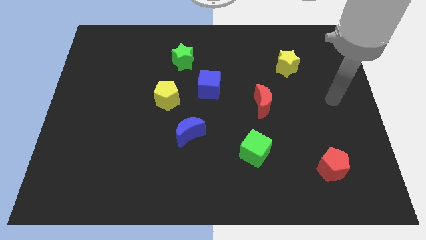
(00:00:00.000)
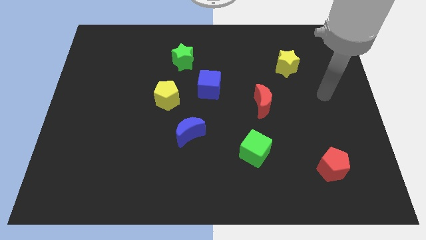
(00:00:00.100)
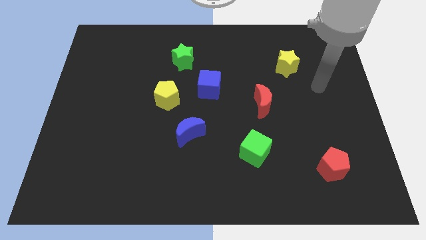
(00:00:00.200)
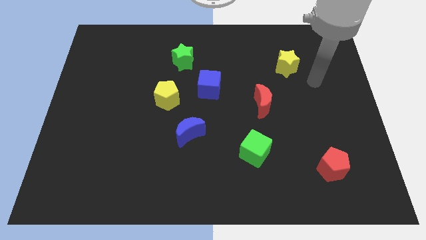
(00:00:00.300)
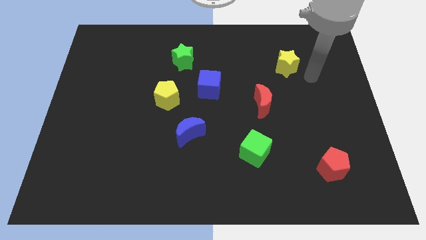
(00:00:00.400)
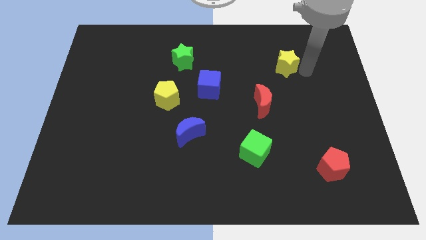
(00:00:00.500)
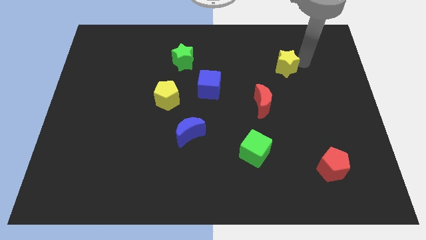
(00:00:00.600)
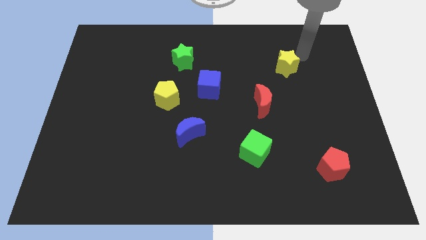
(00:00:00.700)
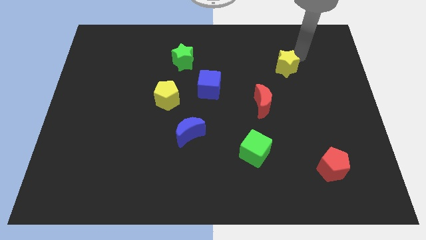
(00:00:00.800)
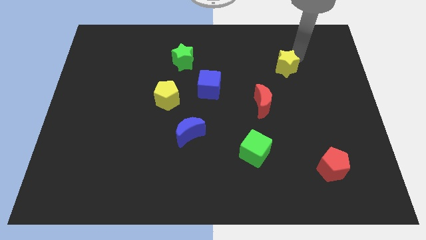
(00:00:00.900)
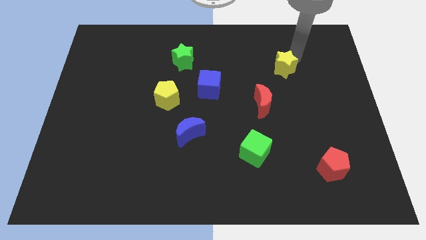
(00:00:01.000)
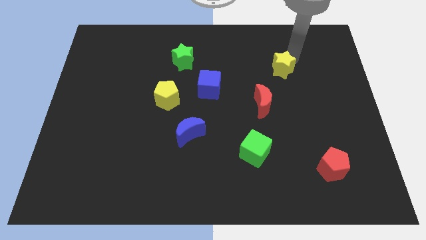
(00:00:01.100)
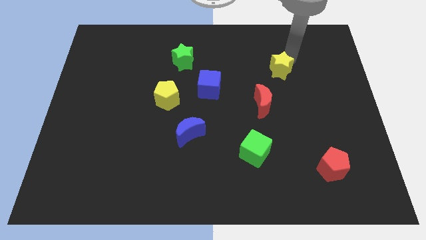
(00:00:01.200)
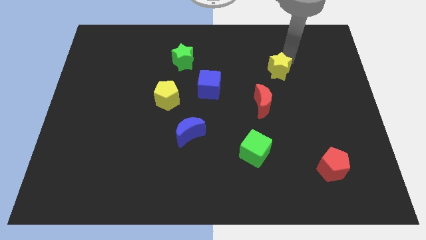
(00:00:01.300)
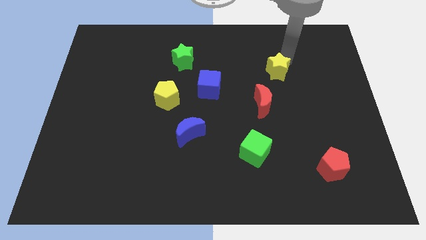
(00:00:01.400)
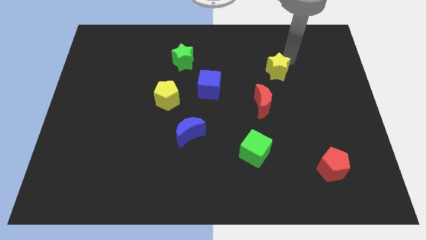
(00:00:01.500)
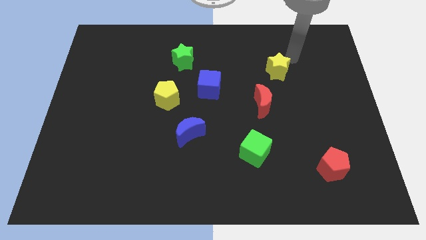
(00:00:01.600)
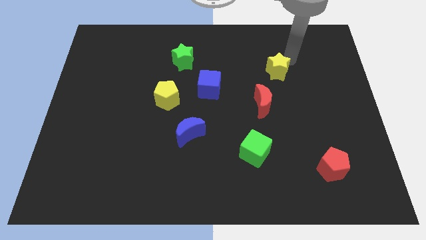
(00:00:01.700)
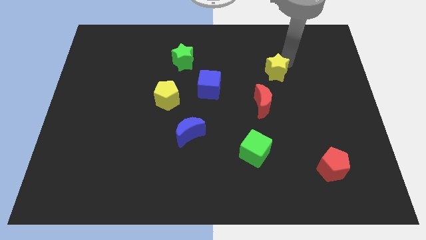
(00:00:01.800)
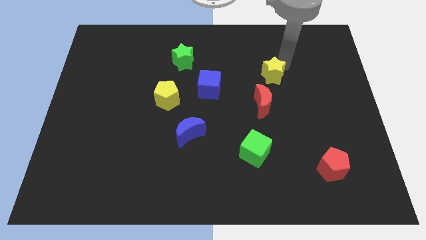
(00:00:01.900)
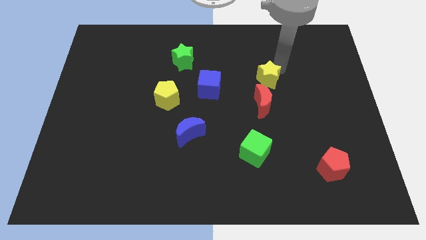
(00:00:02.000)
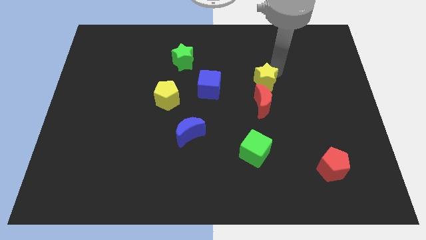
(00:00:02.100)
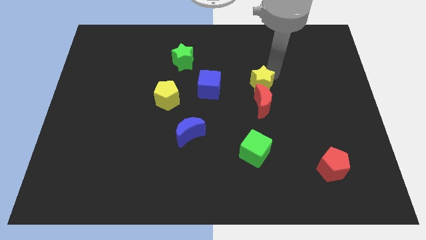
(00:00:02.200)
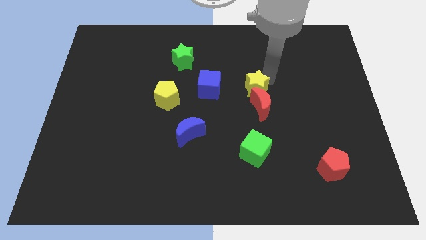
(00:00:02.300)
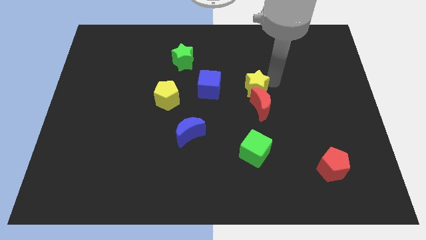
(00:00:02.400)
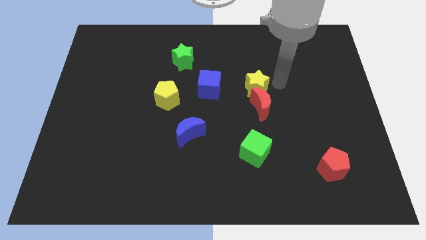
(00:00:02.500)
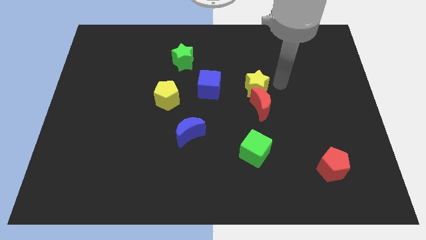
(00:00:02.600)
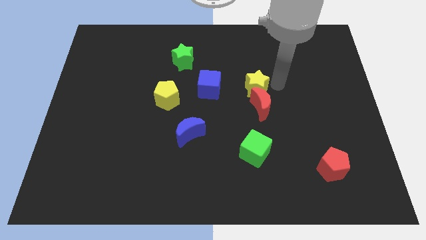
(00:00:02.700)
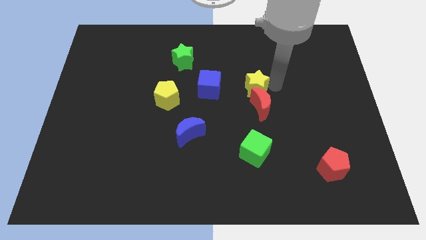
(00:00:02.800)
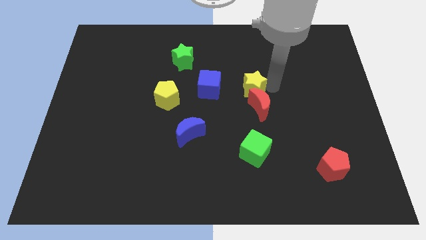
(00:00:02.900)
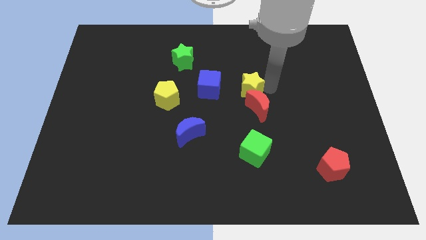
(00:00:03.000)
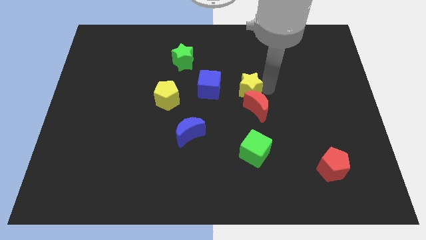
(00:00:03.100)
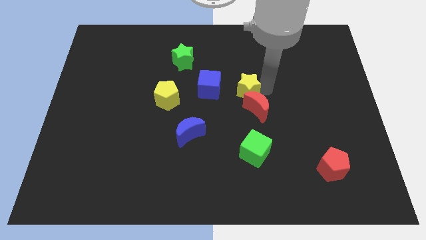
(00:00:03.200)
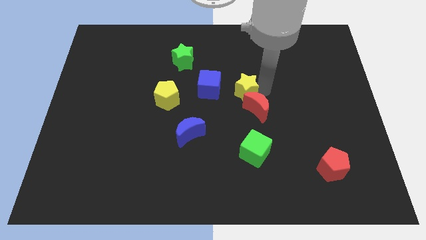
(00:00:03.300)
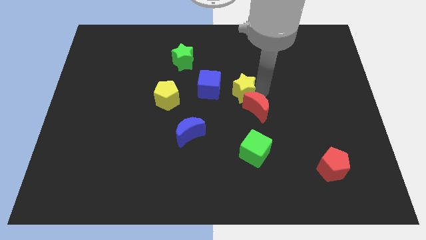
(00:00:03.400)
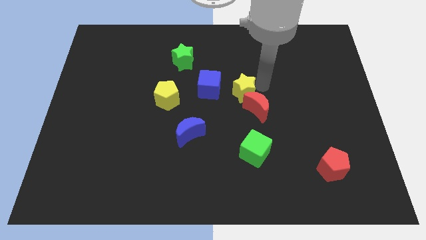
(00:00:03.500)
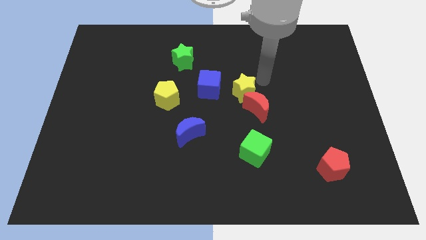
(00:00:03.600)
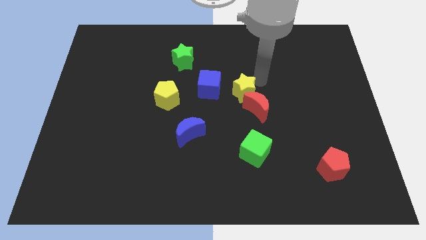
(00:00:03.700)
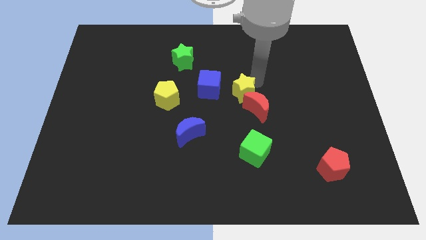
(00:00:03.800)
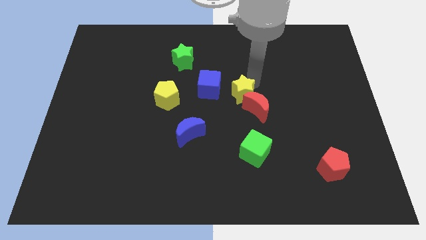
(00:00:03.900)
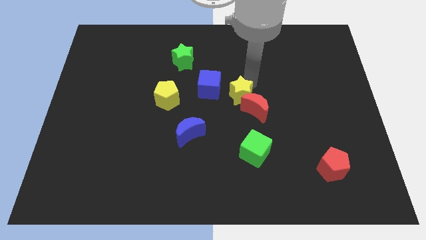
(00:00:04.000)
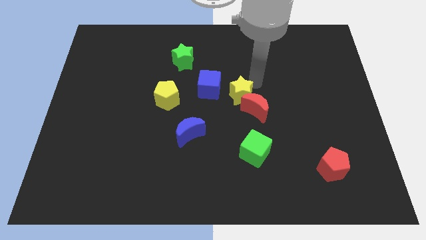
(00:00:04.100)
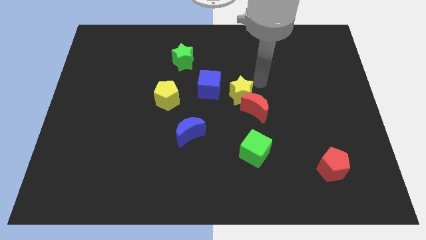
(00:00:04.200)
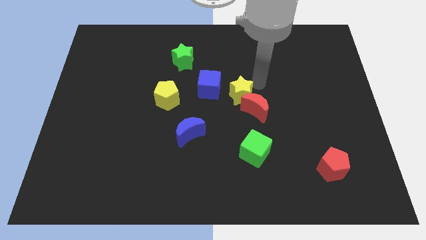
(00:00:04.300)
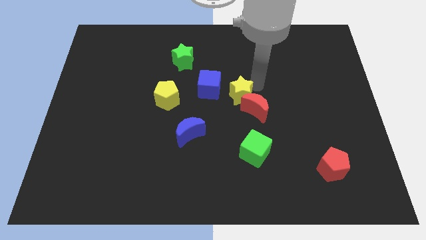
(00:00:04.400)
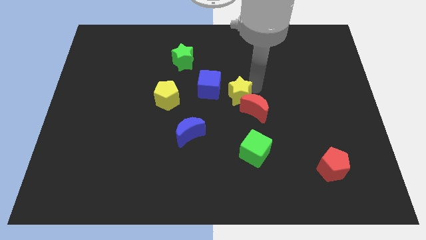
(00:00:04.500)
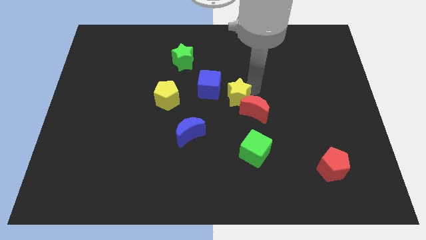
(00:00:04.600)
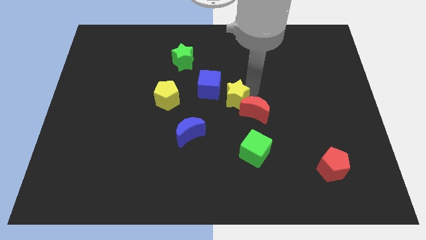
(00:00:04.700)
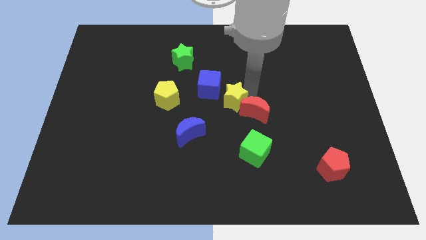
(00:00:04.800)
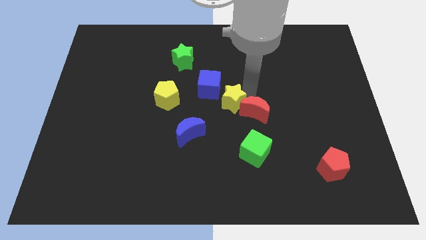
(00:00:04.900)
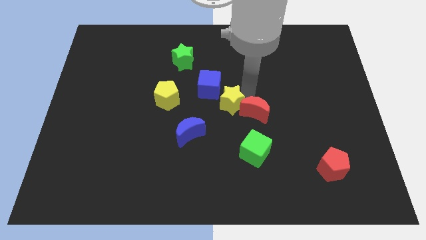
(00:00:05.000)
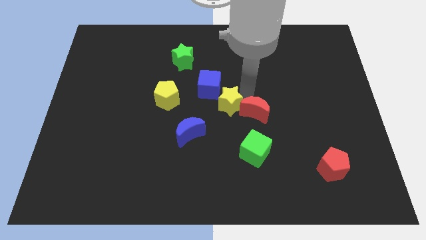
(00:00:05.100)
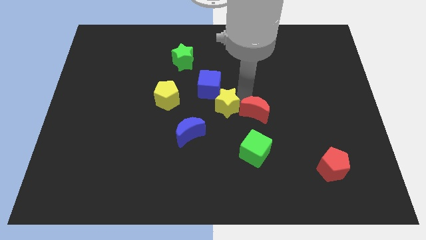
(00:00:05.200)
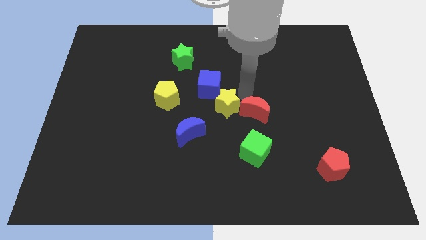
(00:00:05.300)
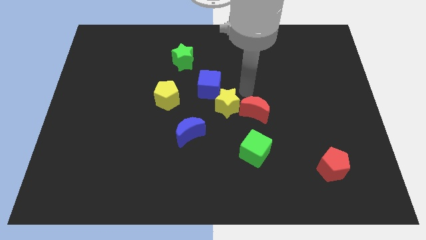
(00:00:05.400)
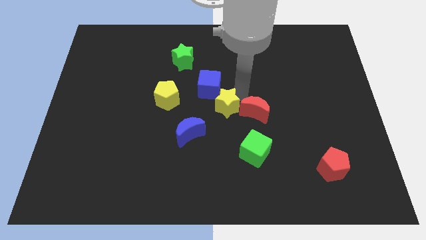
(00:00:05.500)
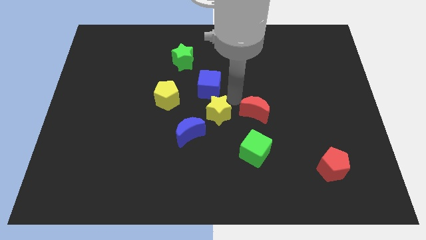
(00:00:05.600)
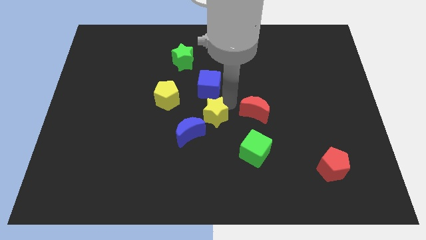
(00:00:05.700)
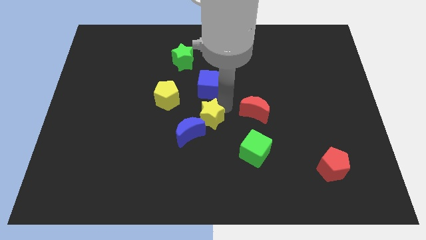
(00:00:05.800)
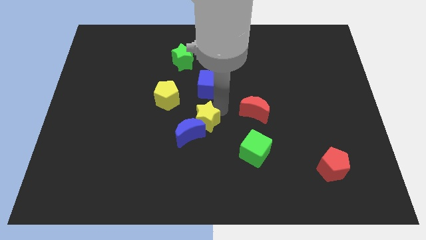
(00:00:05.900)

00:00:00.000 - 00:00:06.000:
put the yellow star to the blue moon

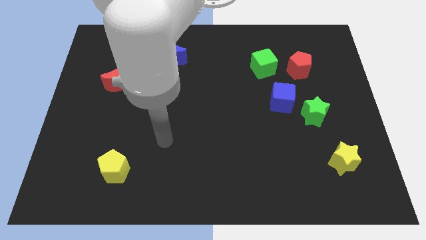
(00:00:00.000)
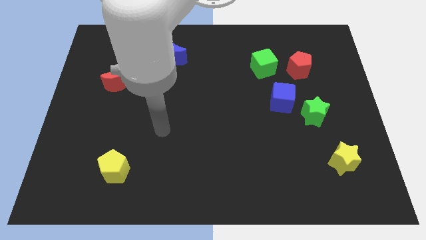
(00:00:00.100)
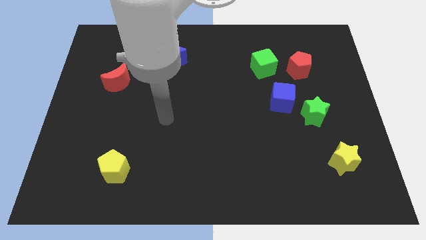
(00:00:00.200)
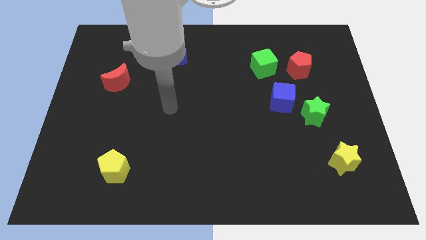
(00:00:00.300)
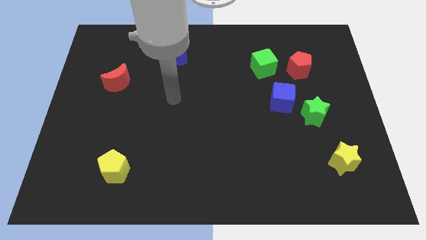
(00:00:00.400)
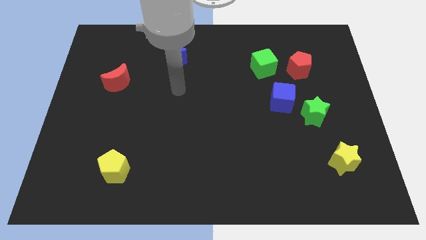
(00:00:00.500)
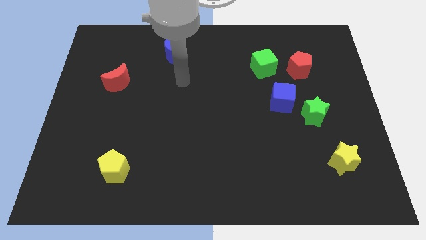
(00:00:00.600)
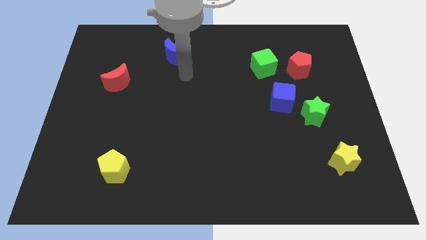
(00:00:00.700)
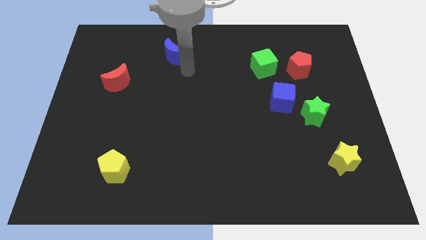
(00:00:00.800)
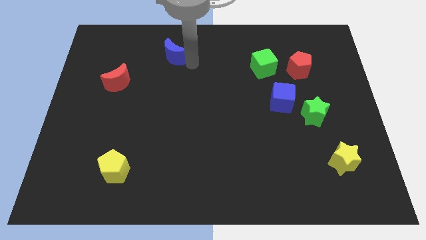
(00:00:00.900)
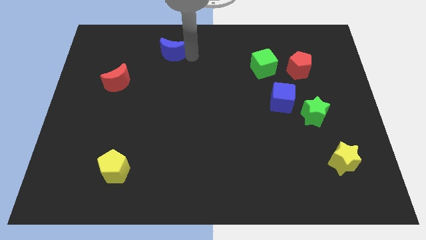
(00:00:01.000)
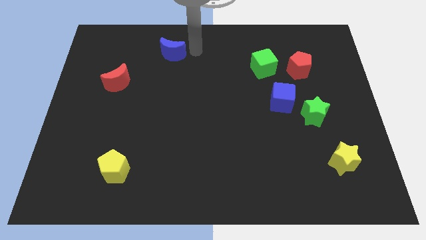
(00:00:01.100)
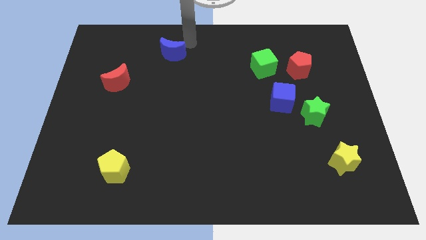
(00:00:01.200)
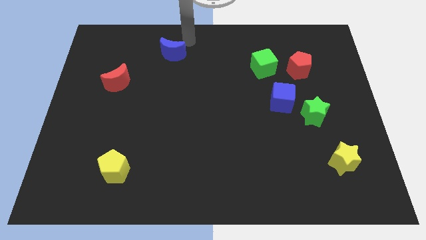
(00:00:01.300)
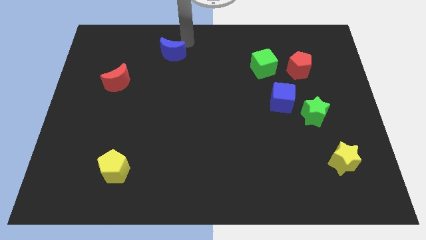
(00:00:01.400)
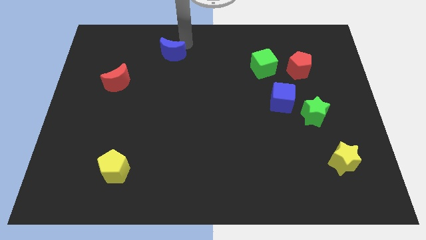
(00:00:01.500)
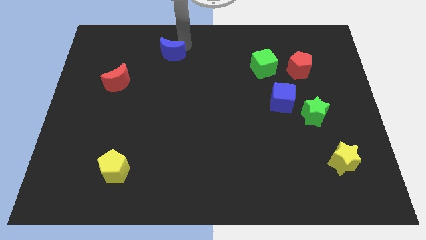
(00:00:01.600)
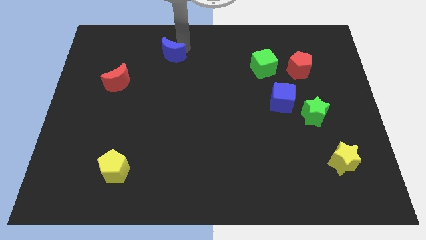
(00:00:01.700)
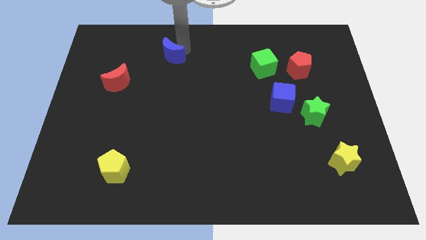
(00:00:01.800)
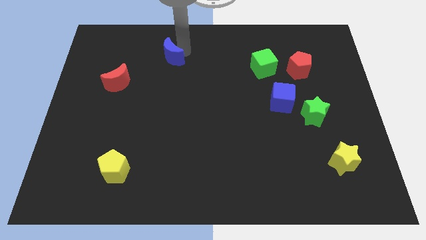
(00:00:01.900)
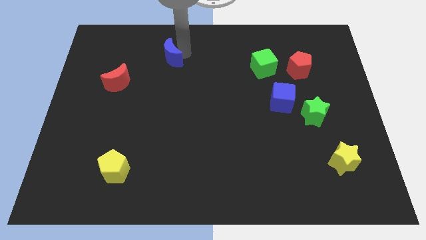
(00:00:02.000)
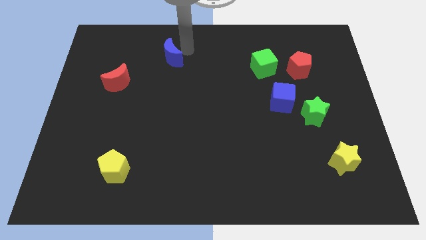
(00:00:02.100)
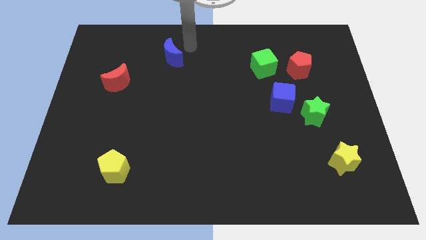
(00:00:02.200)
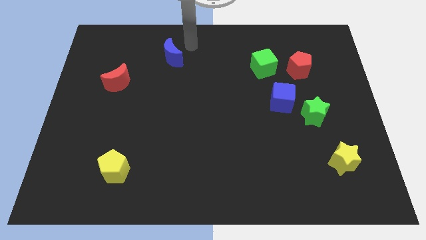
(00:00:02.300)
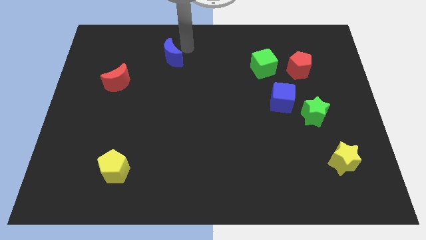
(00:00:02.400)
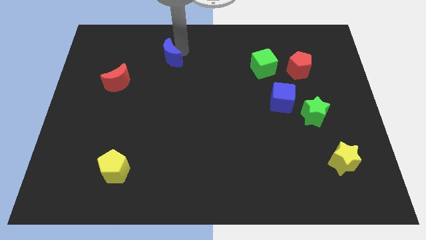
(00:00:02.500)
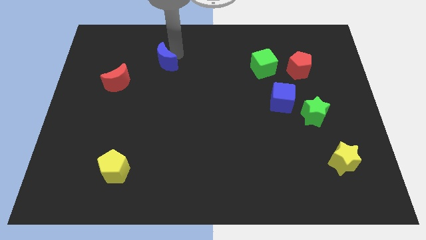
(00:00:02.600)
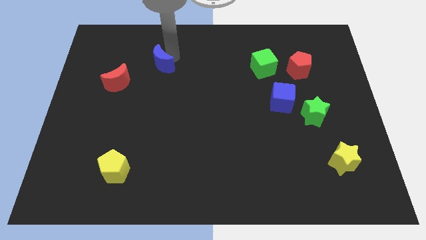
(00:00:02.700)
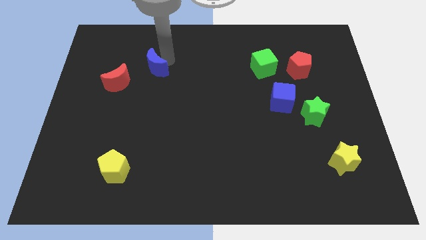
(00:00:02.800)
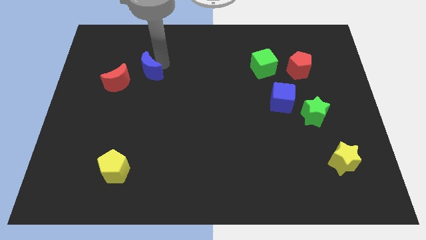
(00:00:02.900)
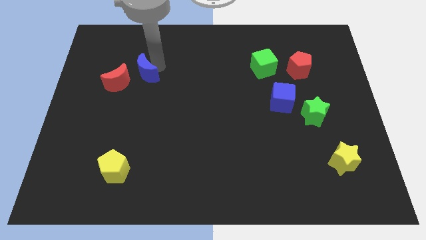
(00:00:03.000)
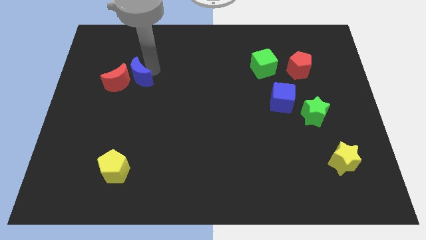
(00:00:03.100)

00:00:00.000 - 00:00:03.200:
slide the blue moon towards the red moon
